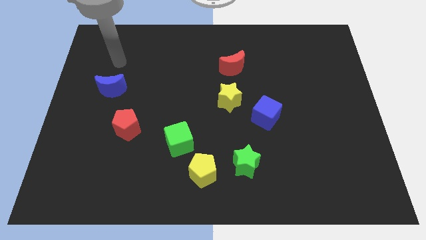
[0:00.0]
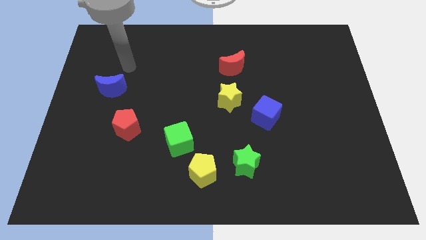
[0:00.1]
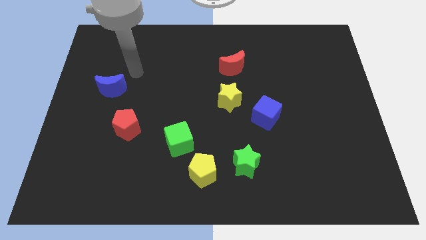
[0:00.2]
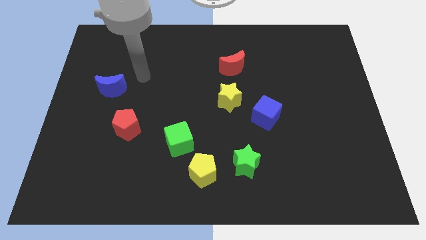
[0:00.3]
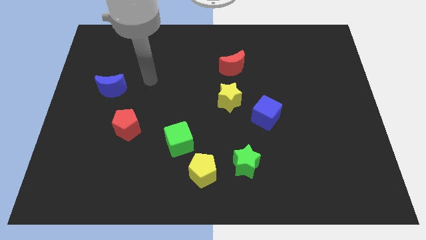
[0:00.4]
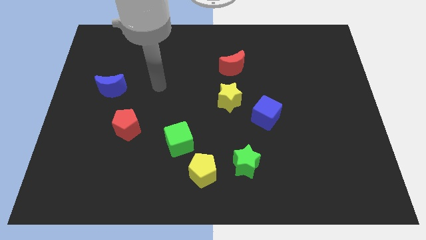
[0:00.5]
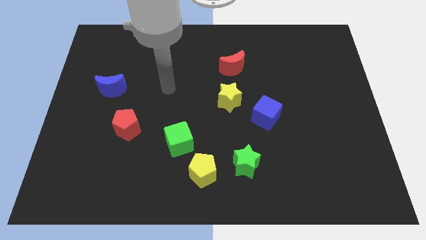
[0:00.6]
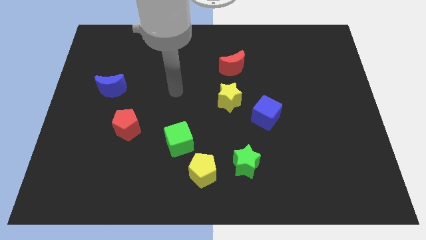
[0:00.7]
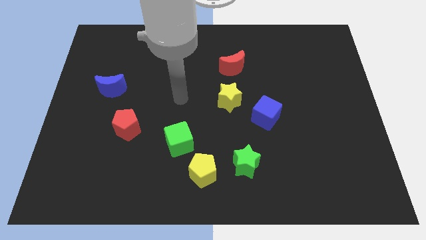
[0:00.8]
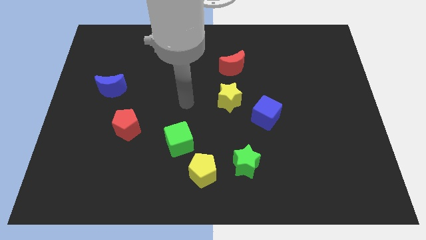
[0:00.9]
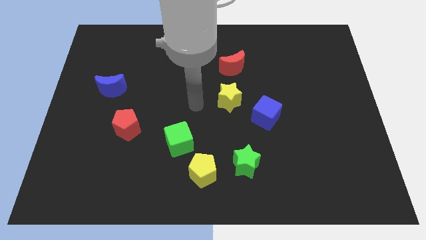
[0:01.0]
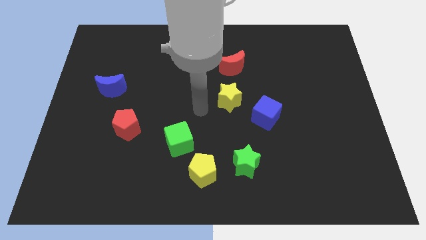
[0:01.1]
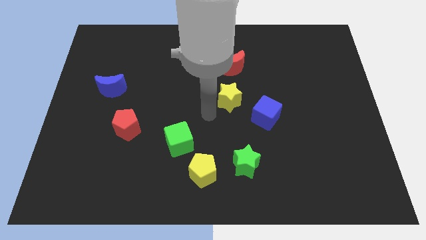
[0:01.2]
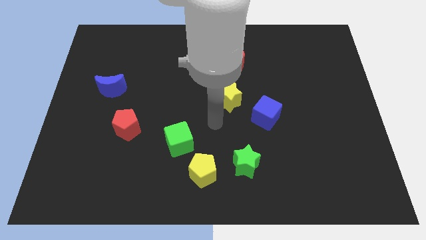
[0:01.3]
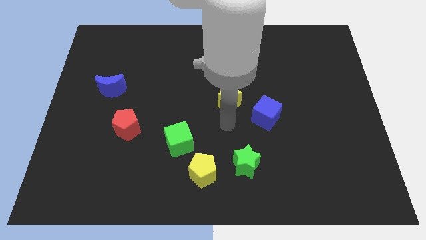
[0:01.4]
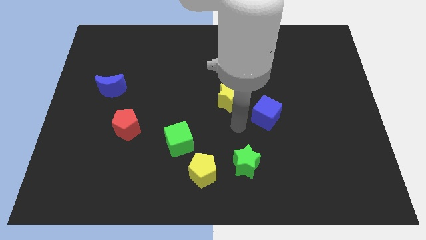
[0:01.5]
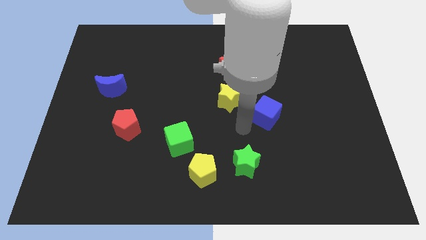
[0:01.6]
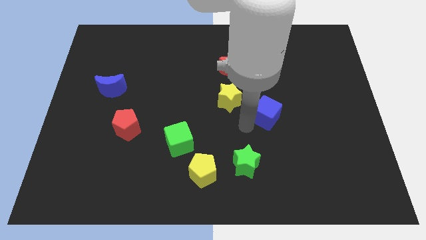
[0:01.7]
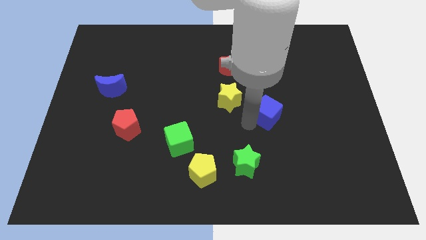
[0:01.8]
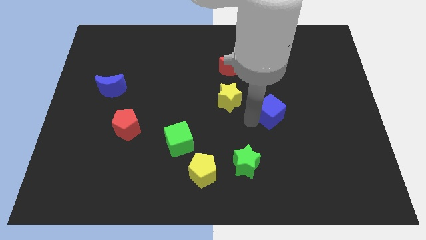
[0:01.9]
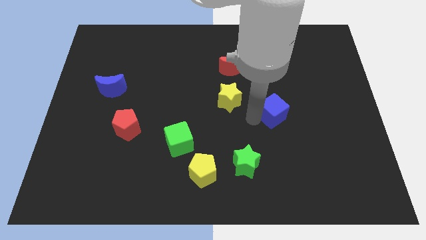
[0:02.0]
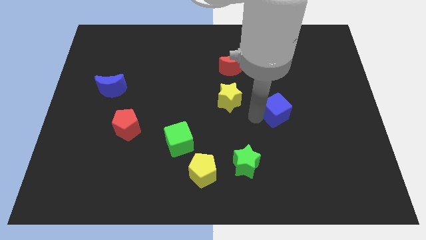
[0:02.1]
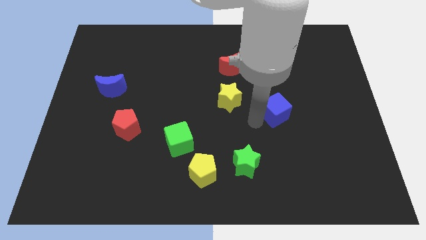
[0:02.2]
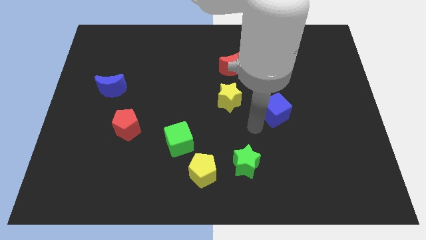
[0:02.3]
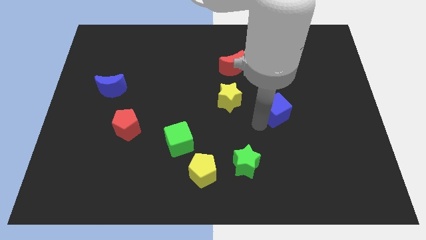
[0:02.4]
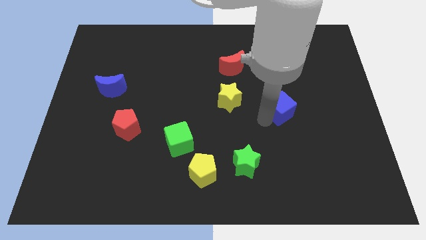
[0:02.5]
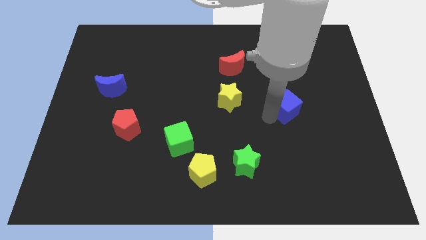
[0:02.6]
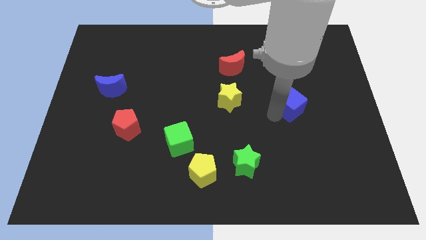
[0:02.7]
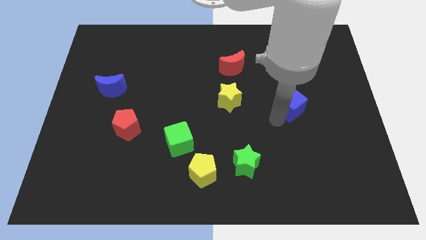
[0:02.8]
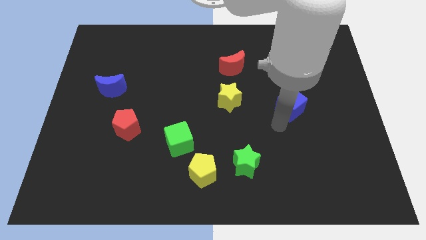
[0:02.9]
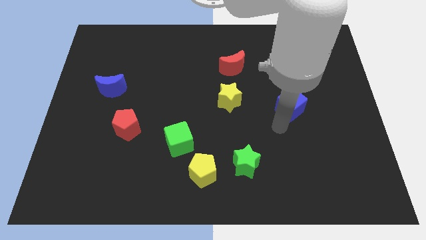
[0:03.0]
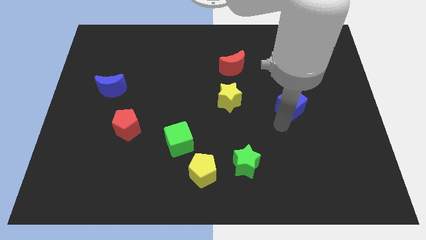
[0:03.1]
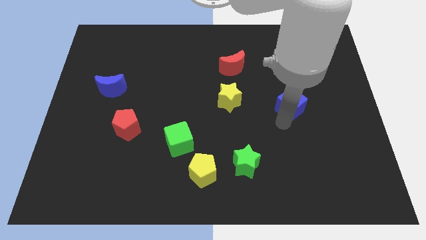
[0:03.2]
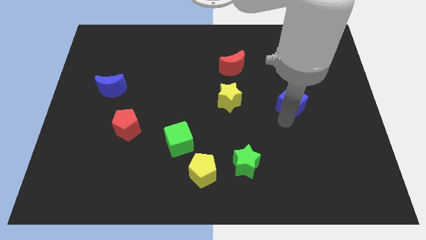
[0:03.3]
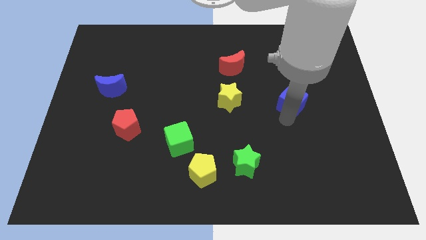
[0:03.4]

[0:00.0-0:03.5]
move the blue cube upwards and to the right slightly

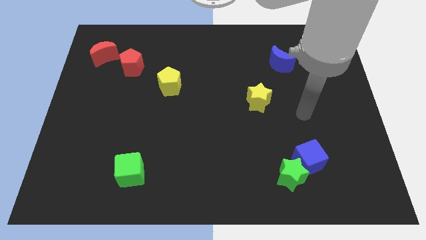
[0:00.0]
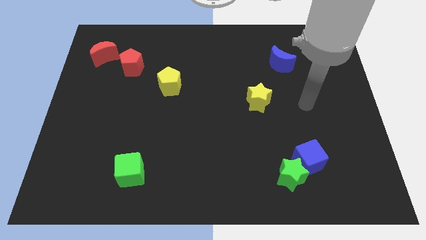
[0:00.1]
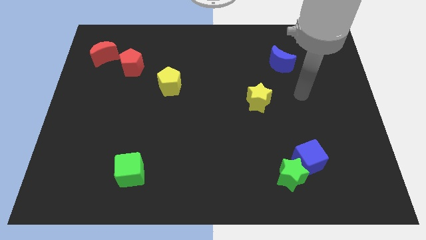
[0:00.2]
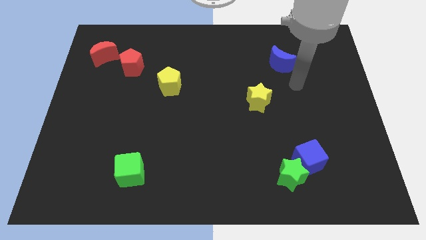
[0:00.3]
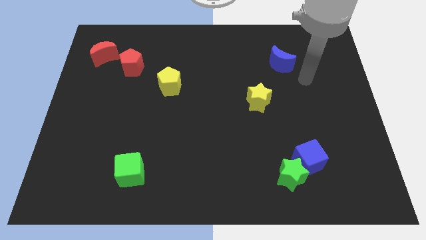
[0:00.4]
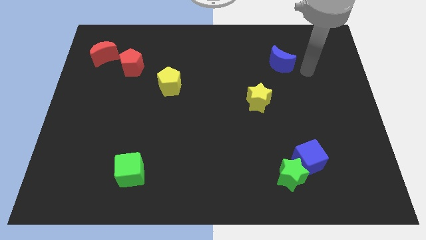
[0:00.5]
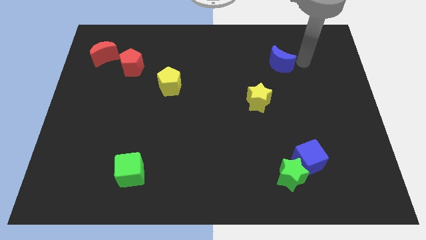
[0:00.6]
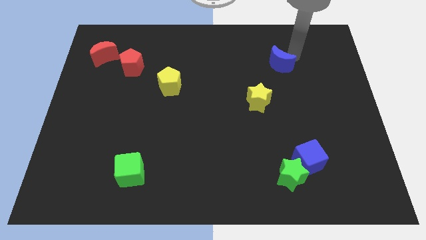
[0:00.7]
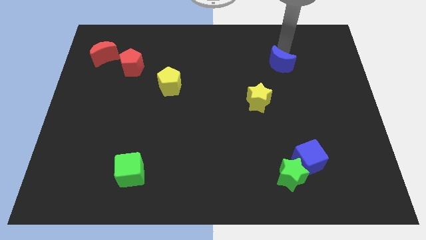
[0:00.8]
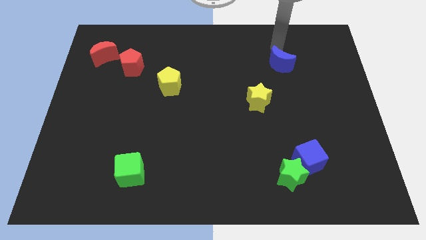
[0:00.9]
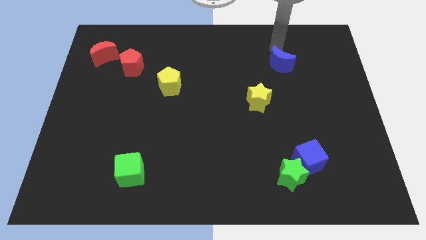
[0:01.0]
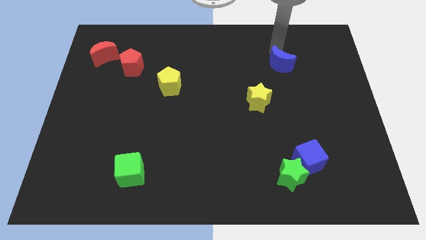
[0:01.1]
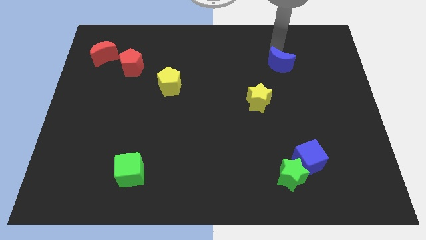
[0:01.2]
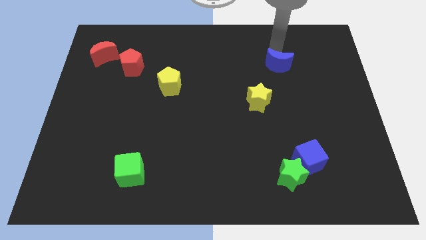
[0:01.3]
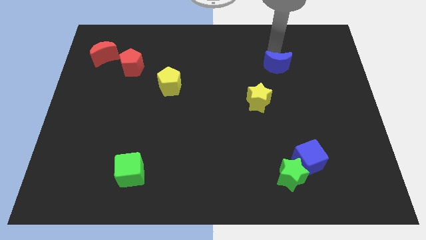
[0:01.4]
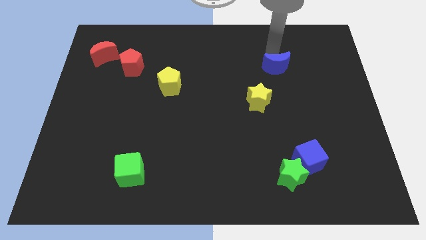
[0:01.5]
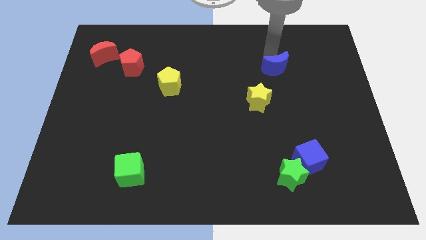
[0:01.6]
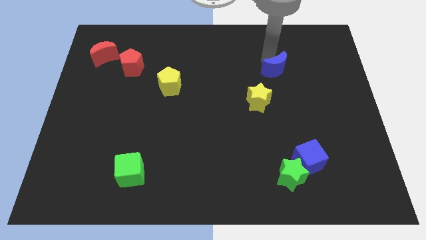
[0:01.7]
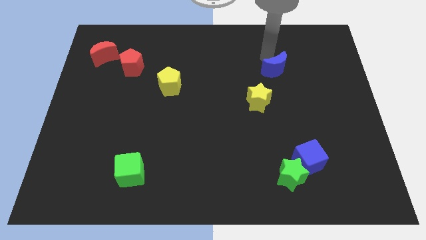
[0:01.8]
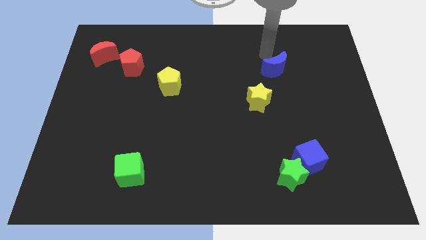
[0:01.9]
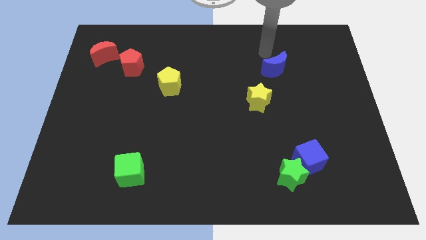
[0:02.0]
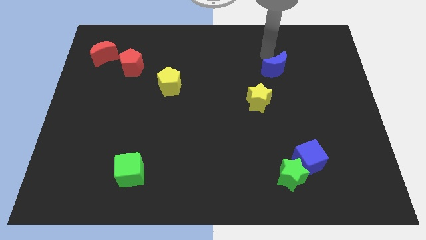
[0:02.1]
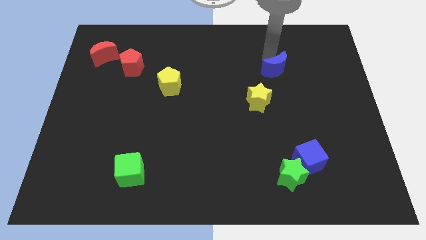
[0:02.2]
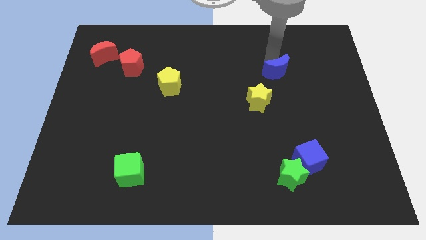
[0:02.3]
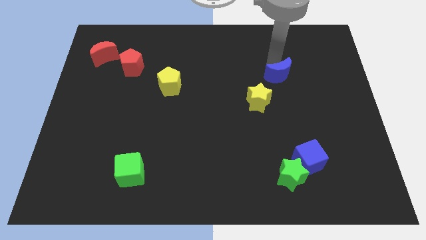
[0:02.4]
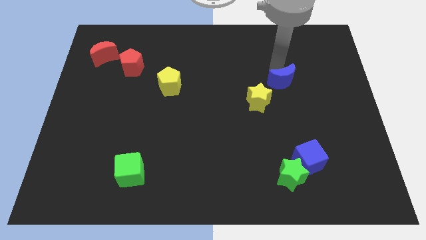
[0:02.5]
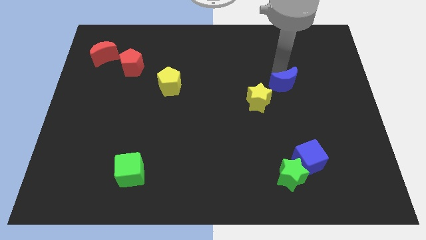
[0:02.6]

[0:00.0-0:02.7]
push the blue moon a little down

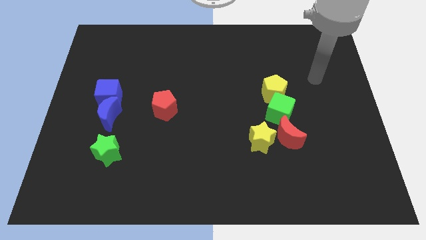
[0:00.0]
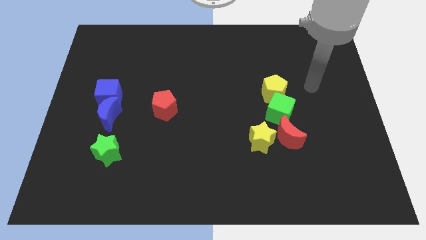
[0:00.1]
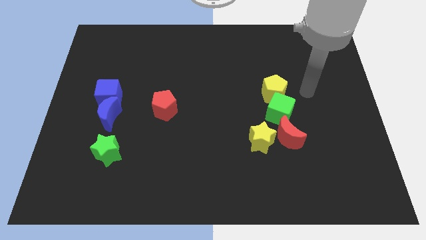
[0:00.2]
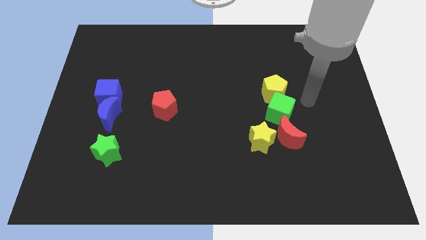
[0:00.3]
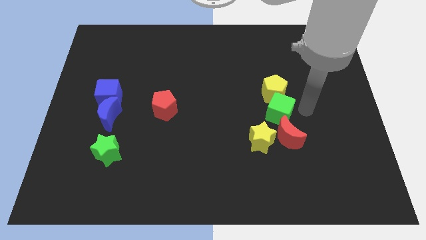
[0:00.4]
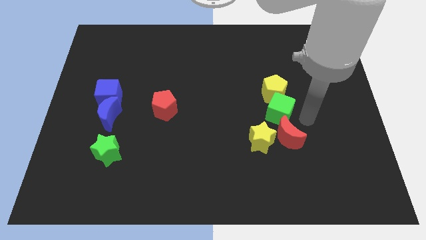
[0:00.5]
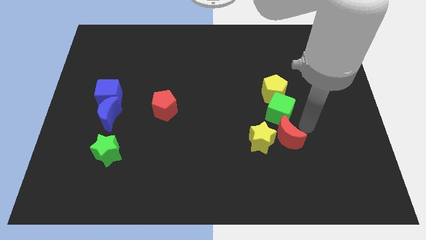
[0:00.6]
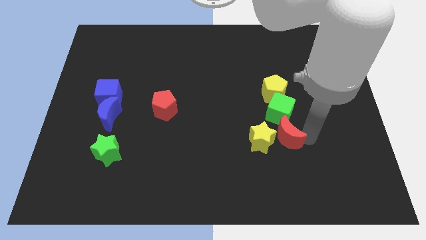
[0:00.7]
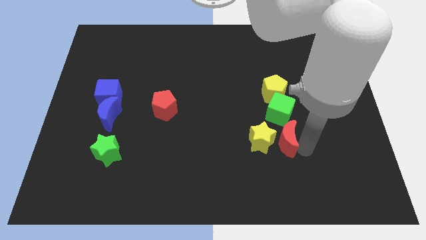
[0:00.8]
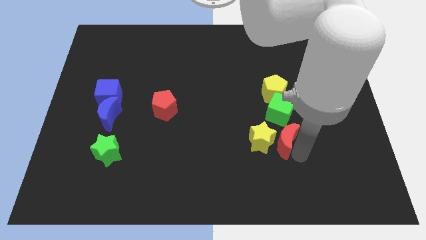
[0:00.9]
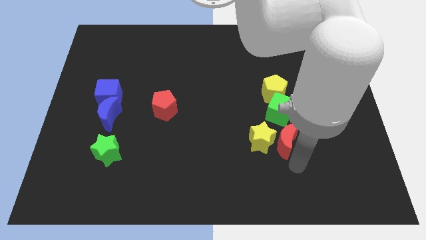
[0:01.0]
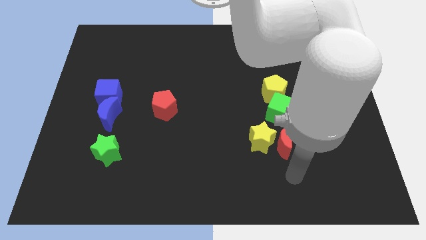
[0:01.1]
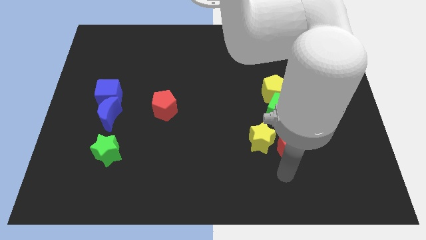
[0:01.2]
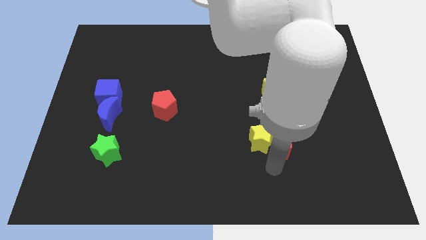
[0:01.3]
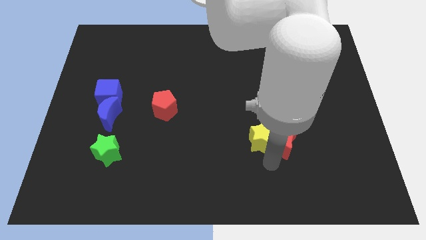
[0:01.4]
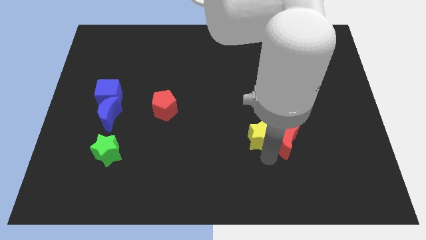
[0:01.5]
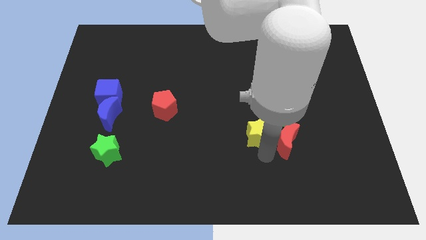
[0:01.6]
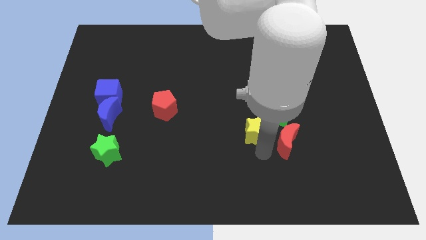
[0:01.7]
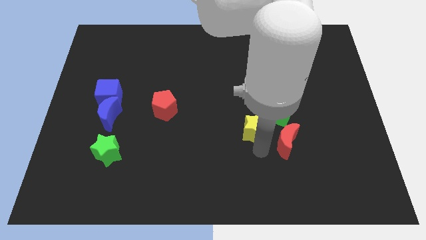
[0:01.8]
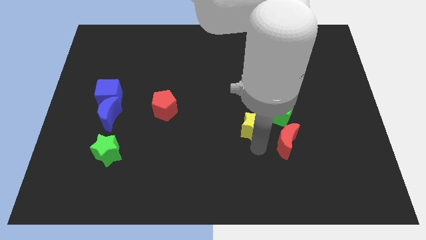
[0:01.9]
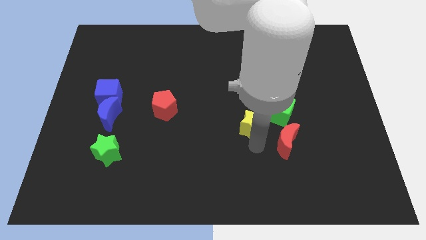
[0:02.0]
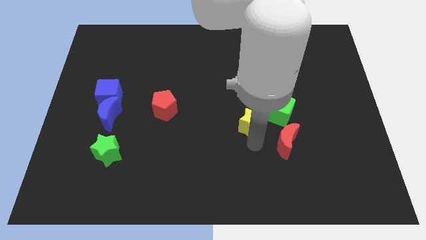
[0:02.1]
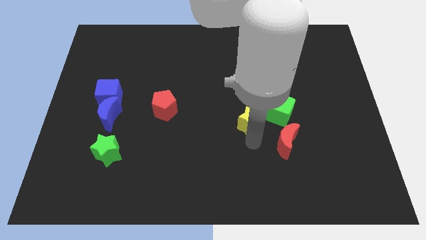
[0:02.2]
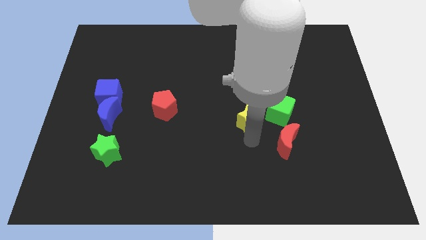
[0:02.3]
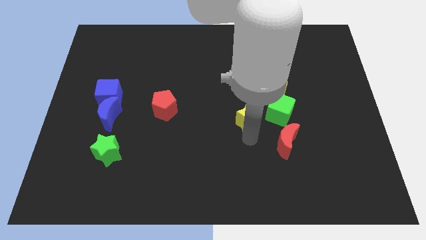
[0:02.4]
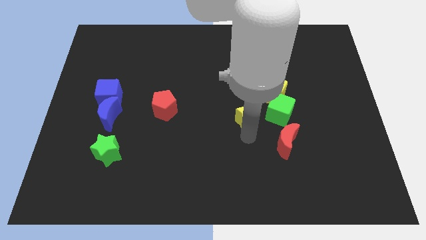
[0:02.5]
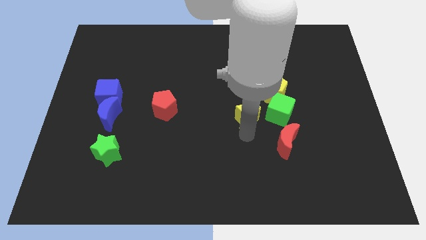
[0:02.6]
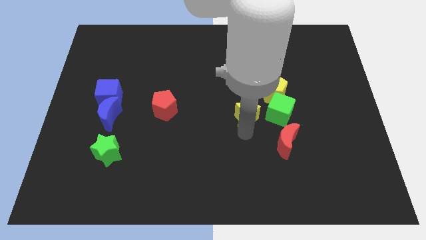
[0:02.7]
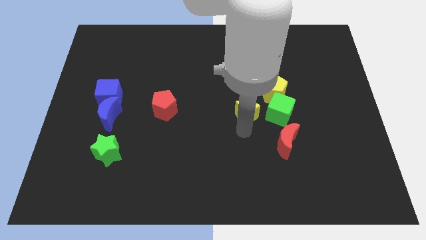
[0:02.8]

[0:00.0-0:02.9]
slightly push the yellow star upwards
